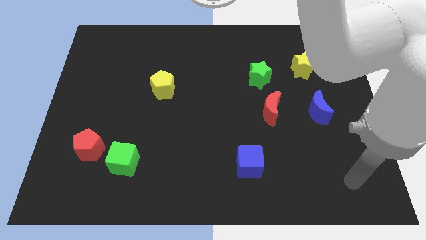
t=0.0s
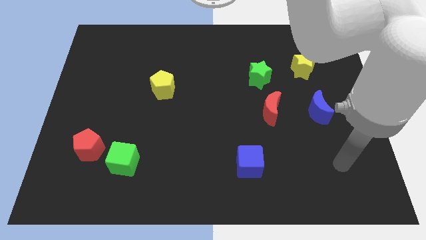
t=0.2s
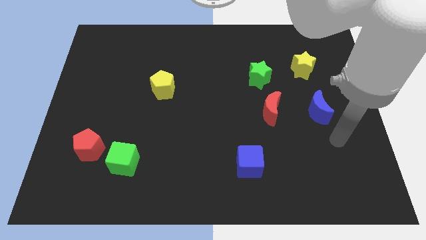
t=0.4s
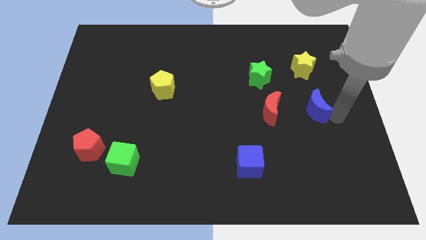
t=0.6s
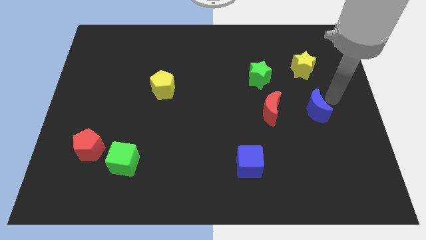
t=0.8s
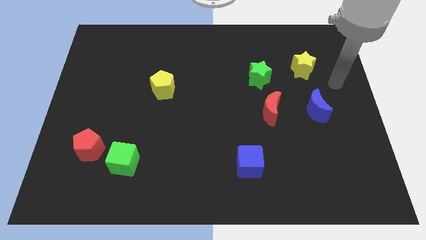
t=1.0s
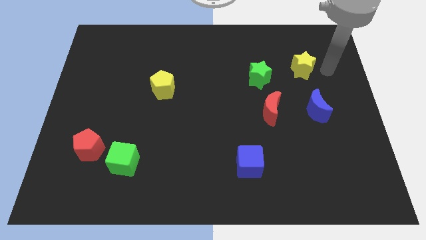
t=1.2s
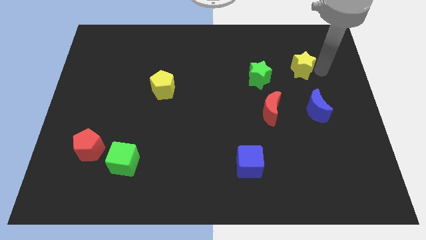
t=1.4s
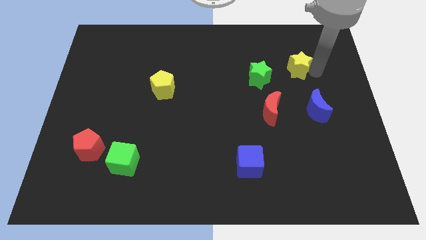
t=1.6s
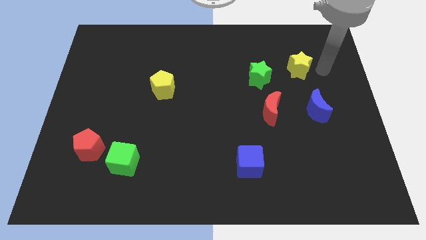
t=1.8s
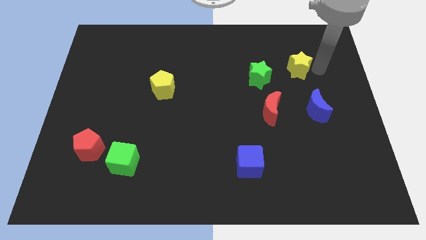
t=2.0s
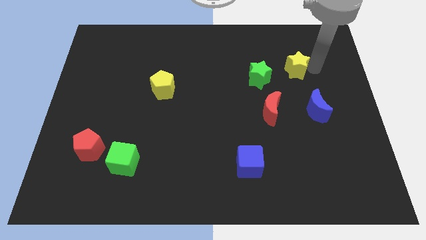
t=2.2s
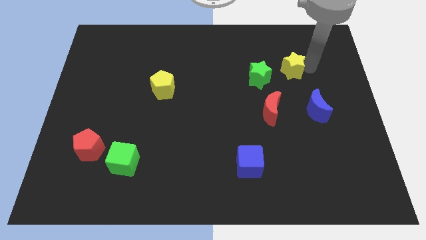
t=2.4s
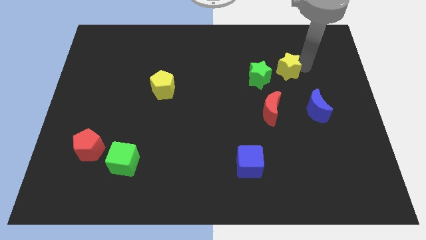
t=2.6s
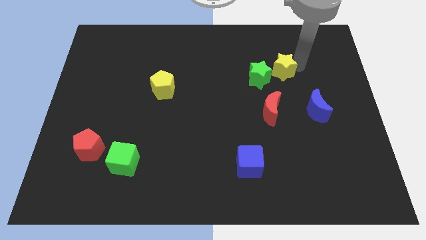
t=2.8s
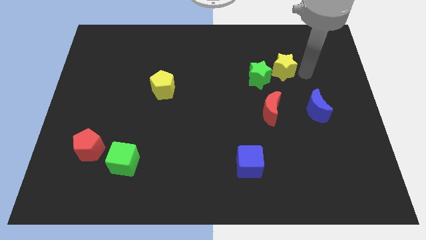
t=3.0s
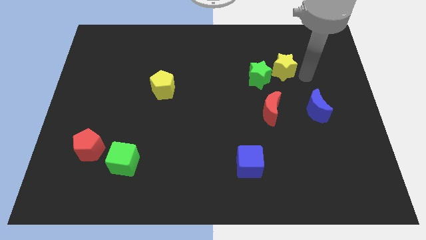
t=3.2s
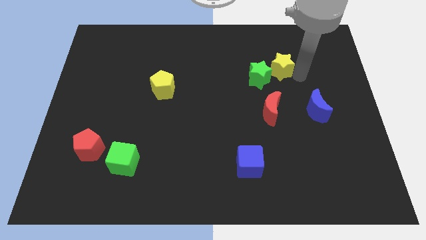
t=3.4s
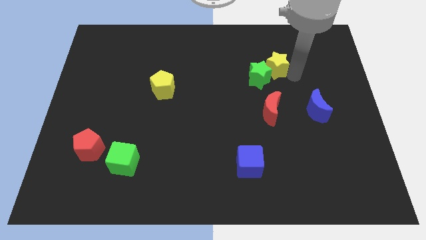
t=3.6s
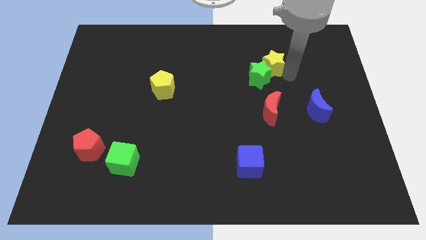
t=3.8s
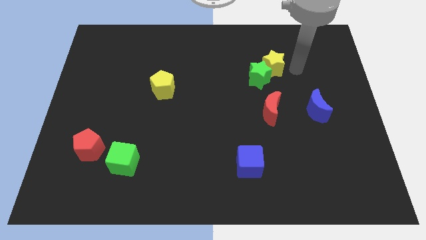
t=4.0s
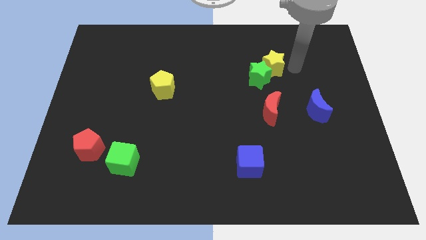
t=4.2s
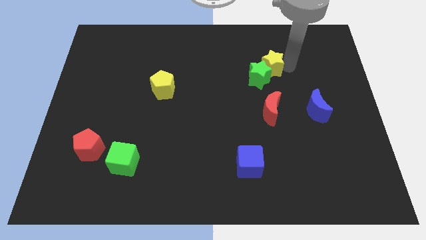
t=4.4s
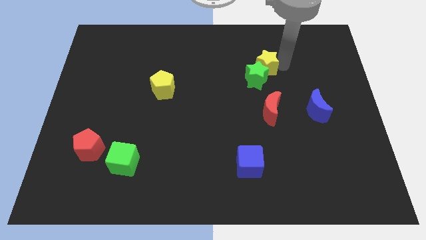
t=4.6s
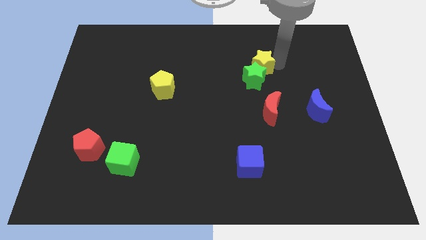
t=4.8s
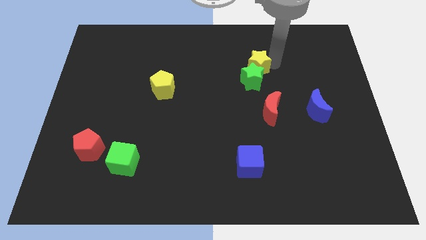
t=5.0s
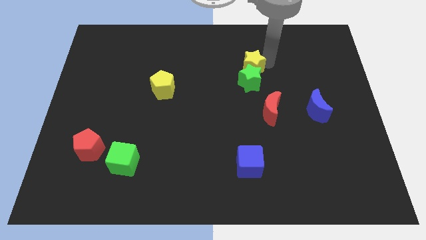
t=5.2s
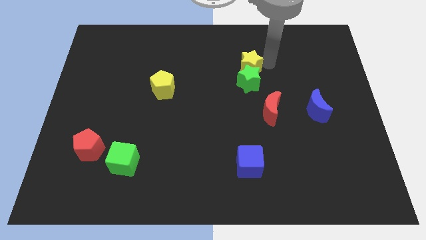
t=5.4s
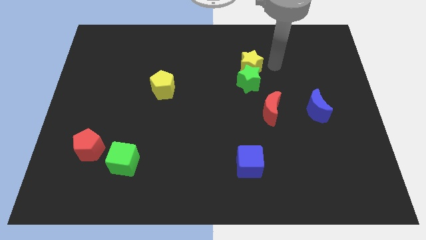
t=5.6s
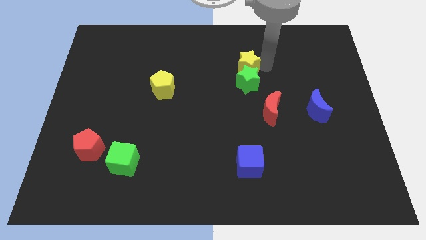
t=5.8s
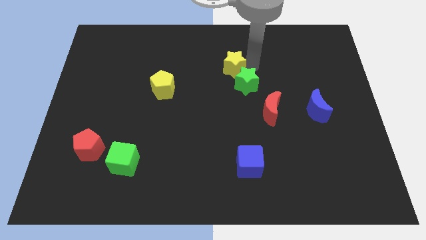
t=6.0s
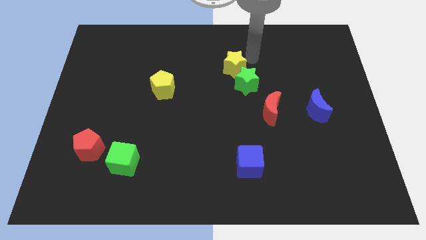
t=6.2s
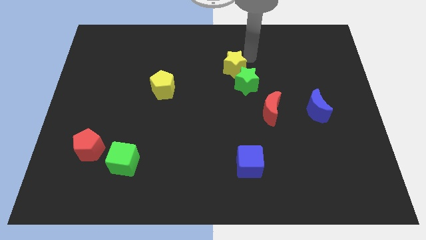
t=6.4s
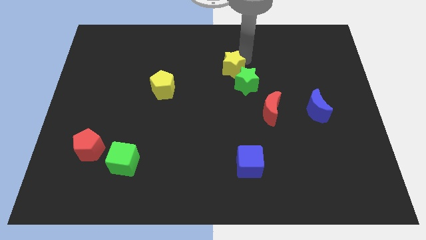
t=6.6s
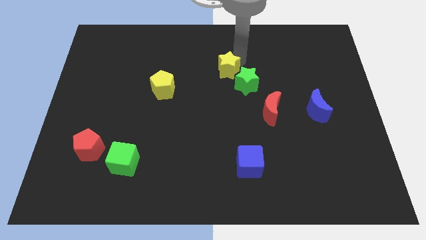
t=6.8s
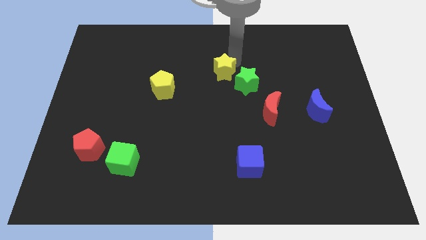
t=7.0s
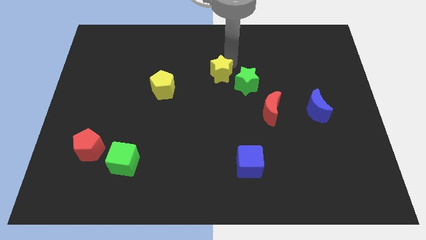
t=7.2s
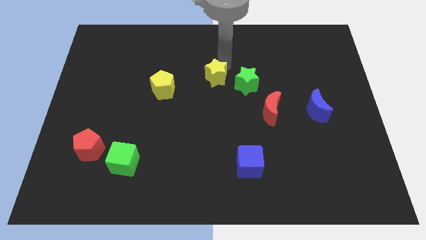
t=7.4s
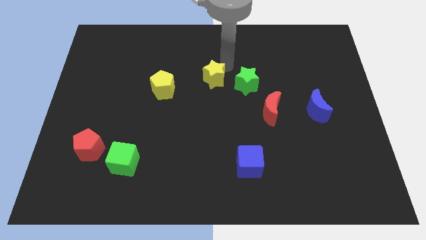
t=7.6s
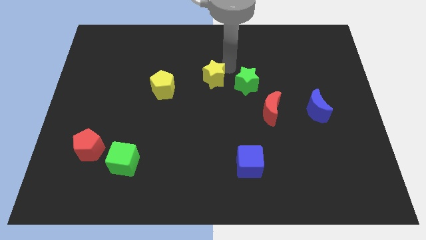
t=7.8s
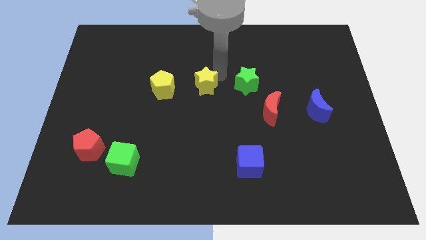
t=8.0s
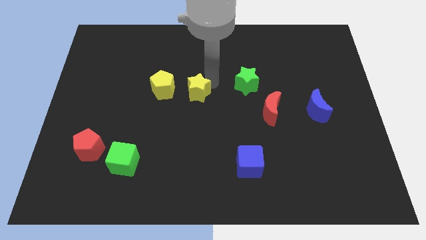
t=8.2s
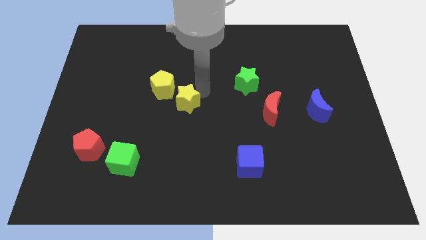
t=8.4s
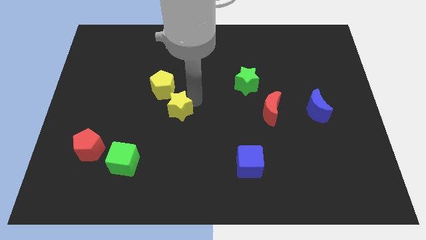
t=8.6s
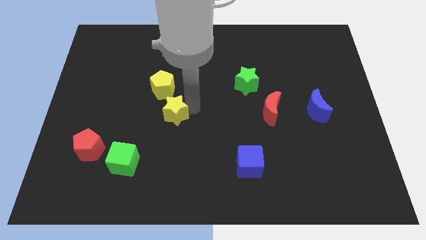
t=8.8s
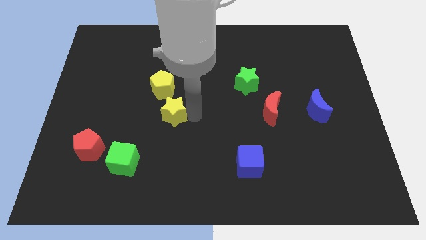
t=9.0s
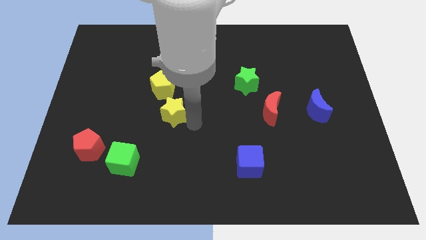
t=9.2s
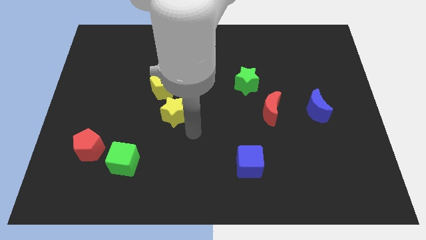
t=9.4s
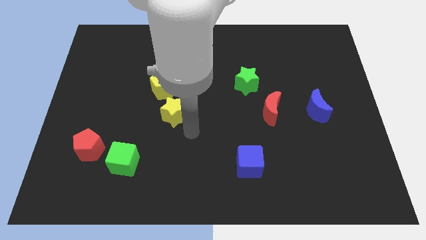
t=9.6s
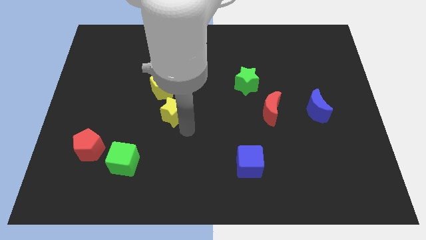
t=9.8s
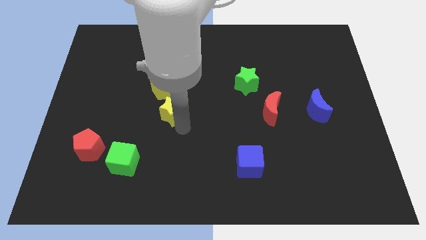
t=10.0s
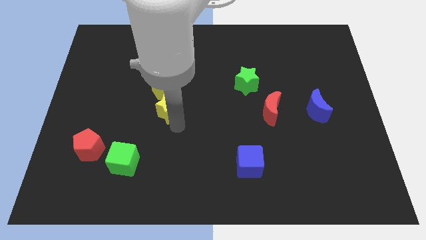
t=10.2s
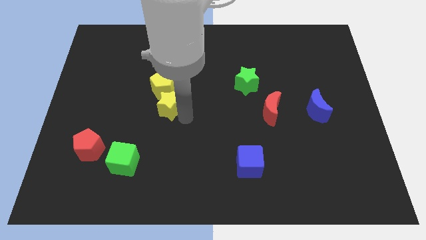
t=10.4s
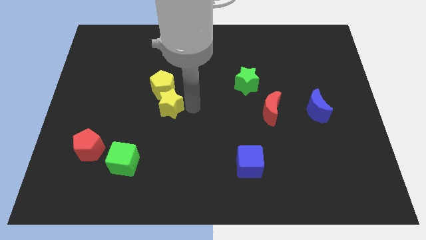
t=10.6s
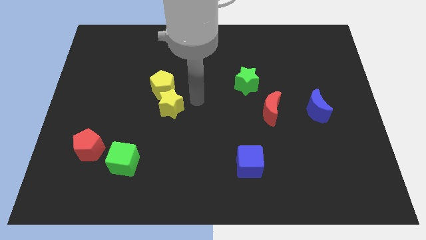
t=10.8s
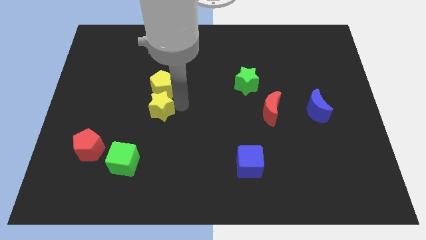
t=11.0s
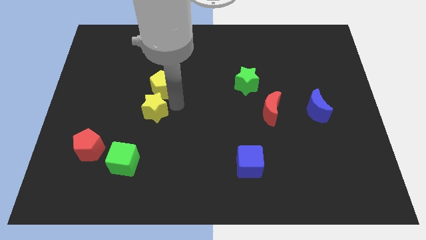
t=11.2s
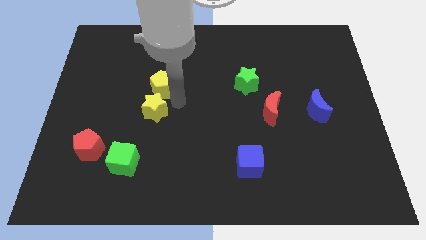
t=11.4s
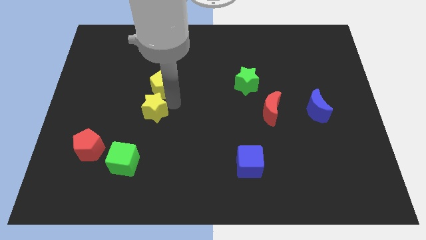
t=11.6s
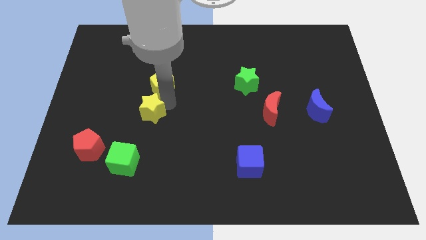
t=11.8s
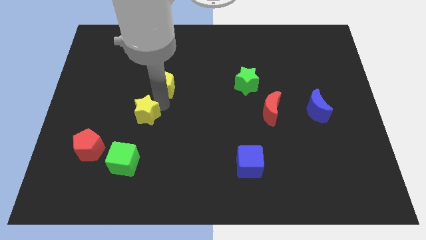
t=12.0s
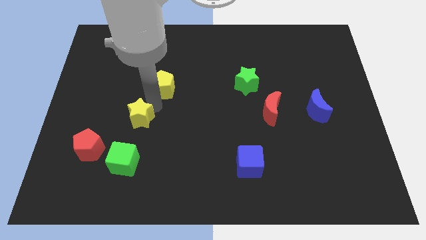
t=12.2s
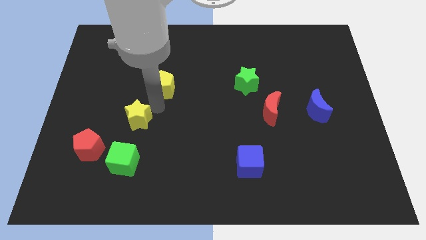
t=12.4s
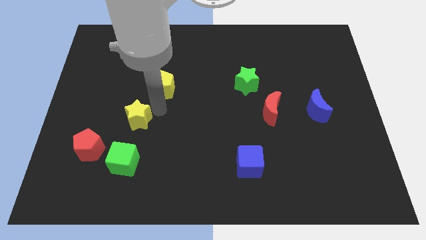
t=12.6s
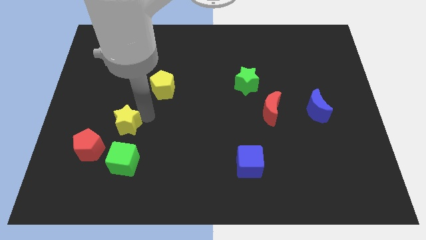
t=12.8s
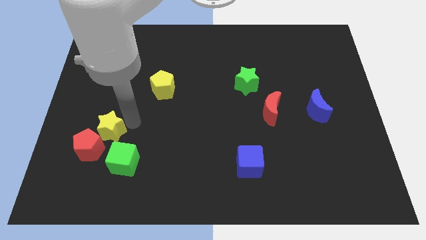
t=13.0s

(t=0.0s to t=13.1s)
push the yellow star next to the red pentagon
